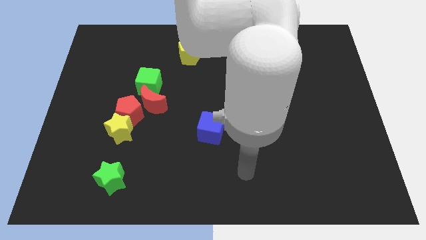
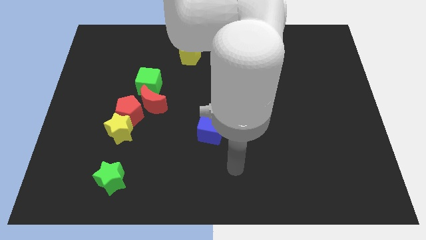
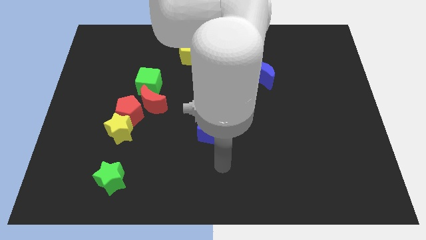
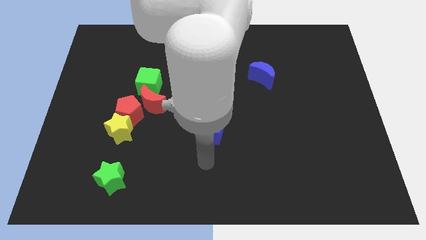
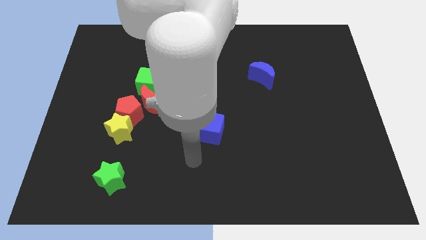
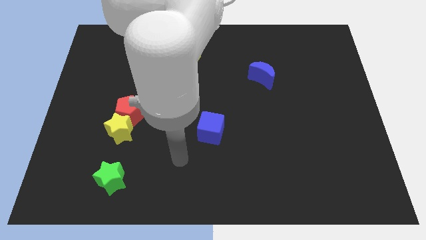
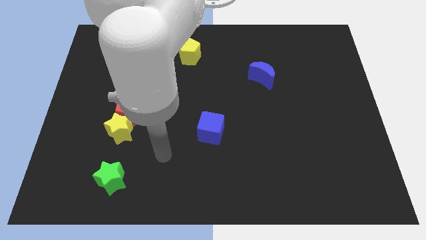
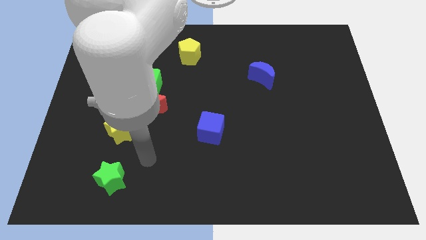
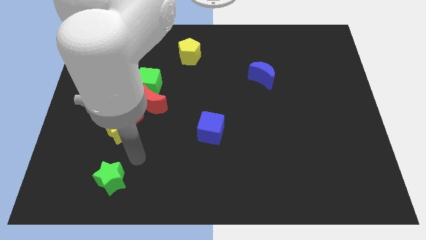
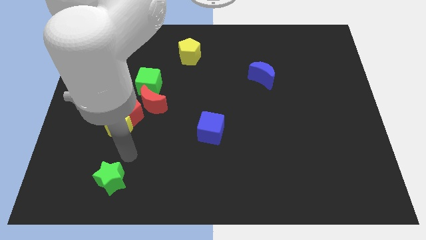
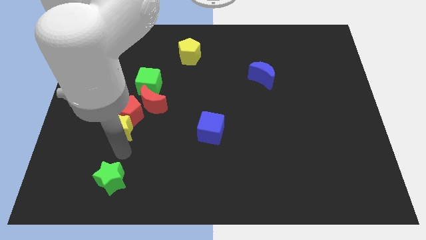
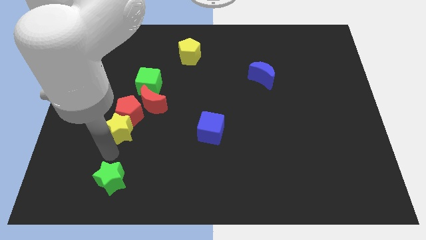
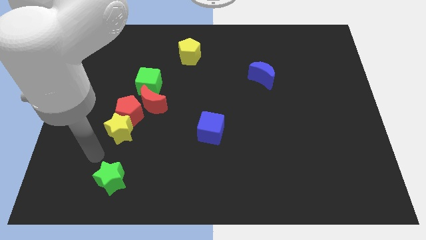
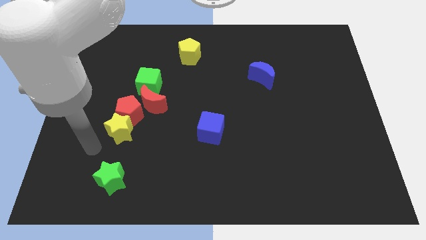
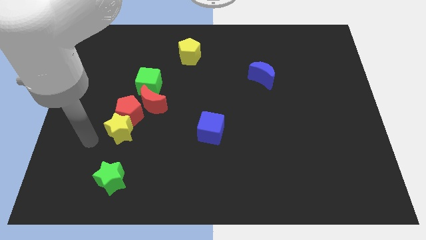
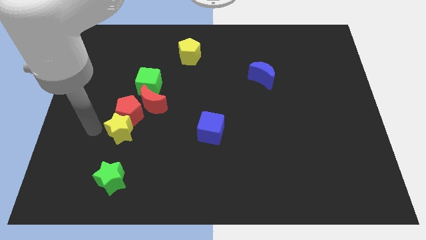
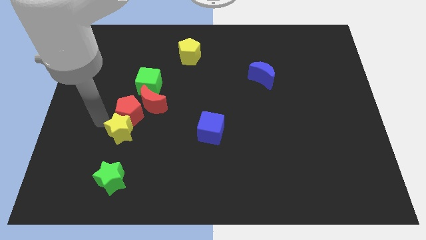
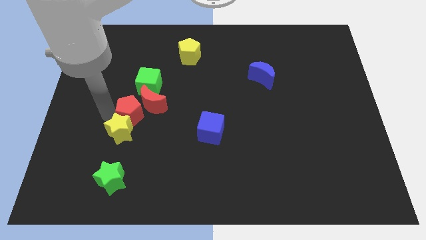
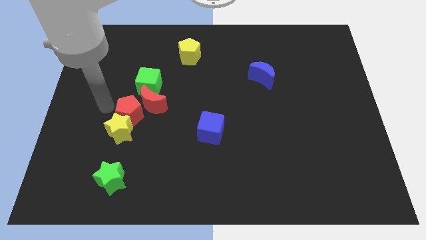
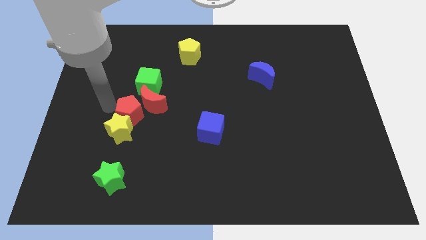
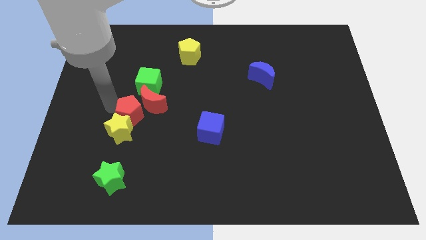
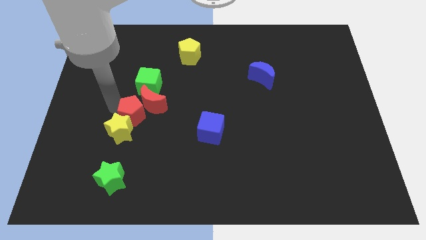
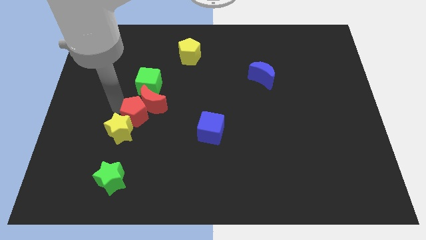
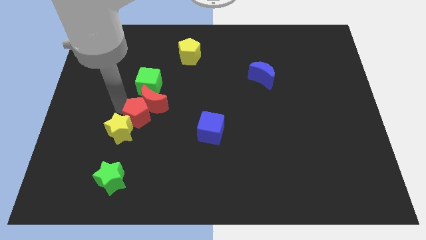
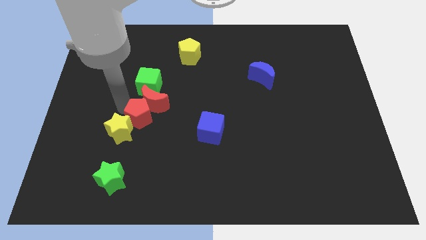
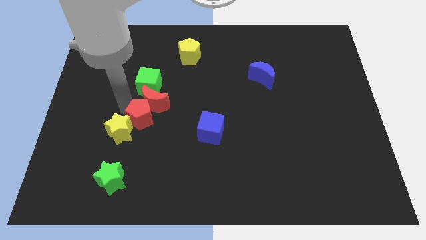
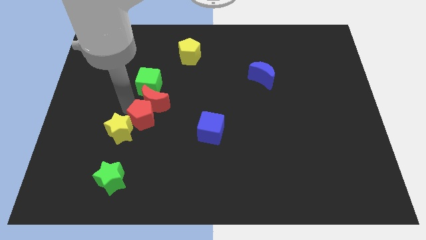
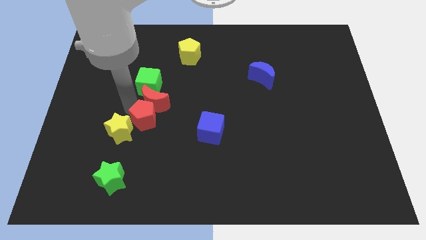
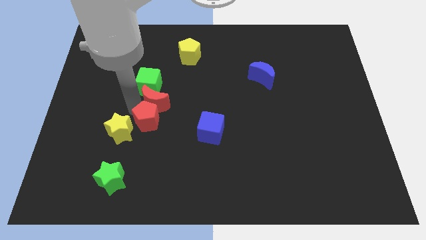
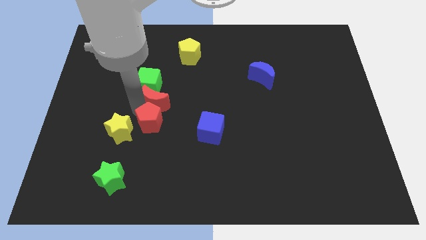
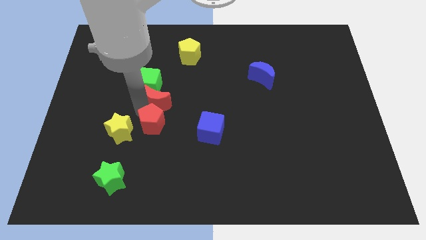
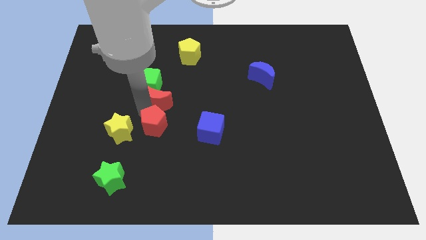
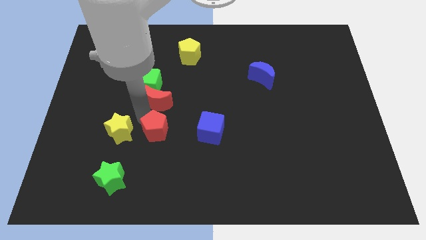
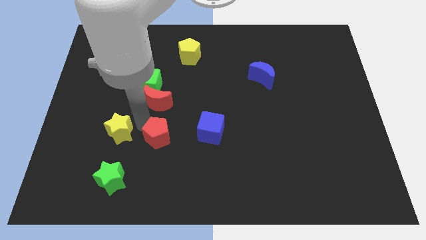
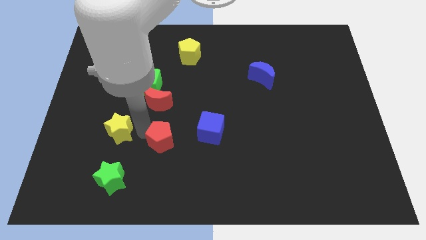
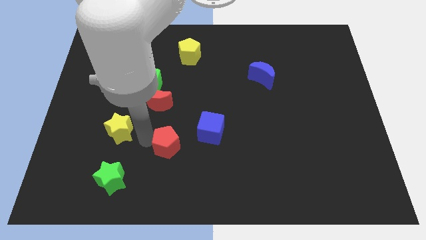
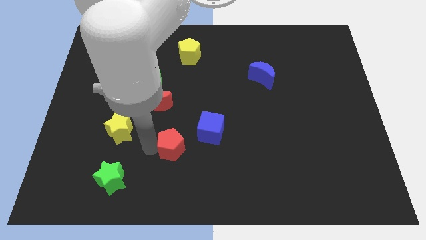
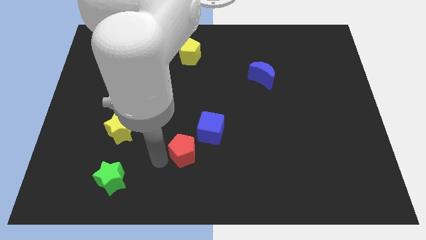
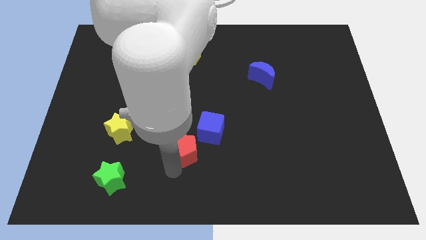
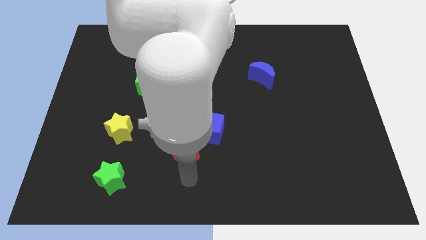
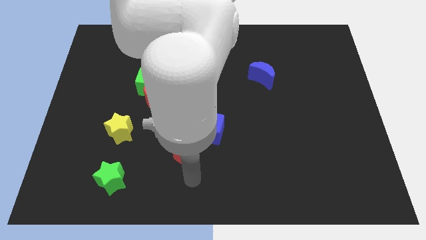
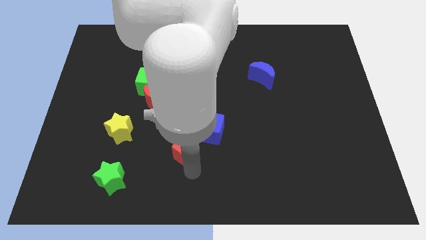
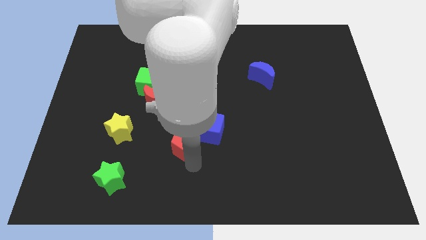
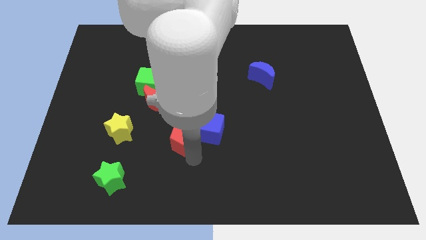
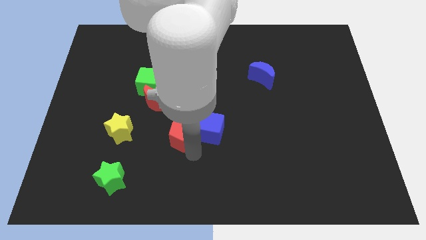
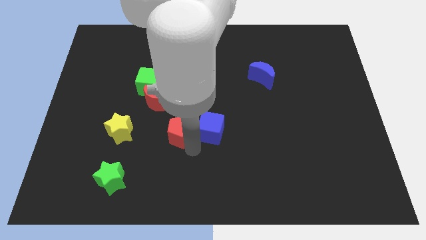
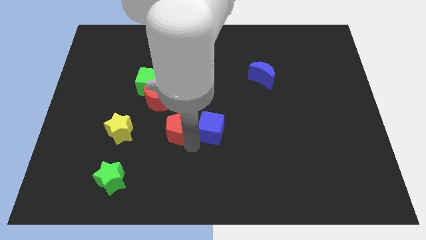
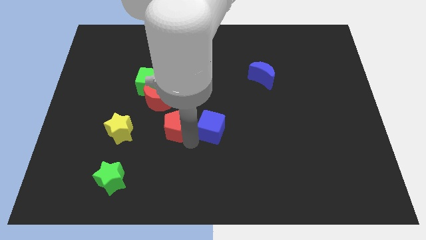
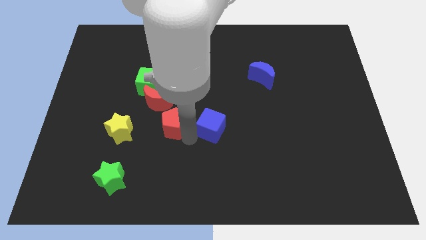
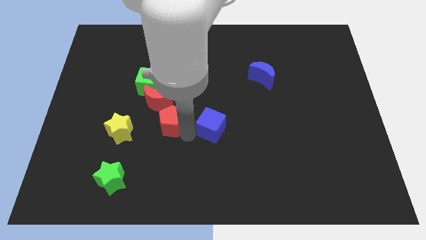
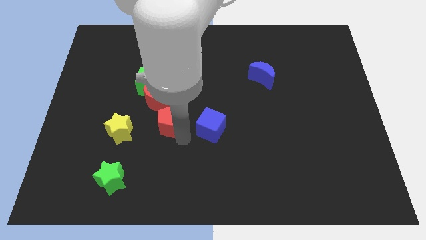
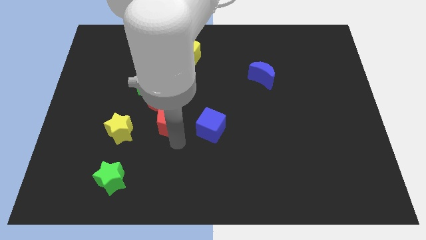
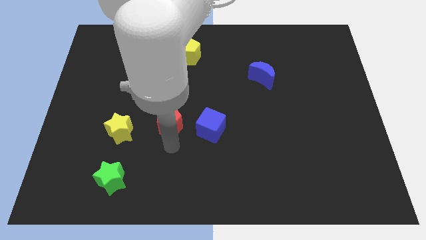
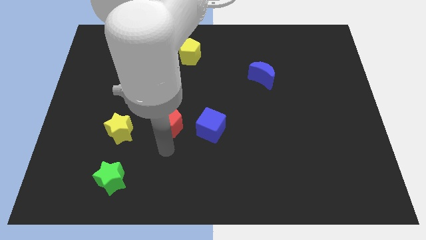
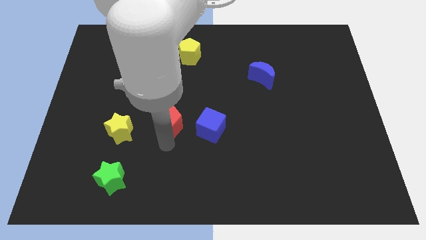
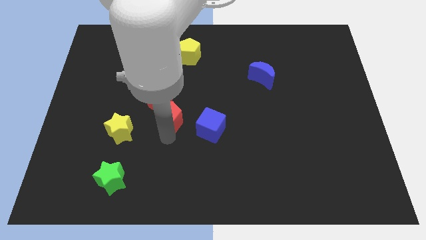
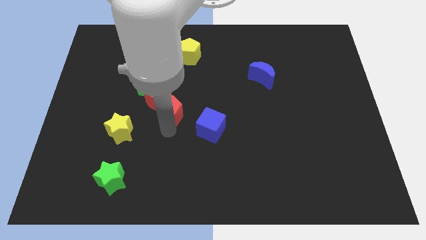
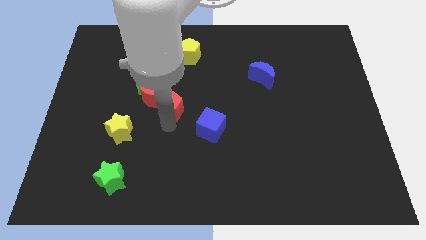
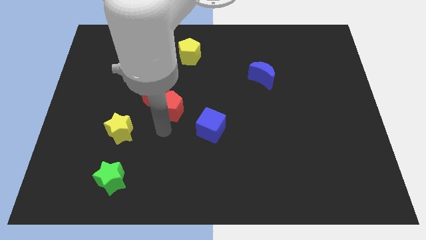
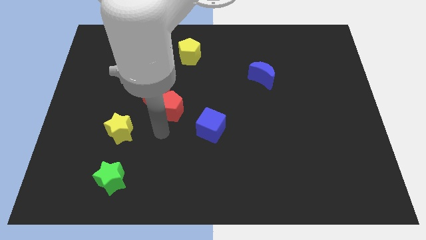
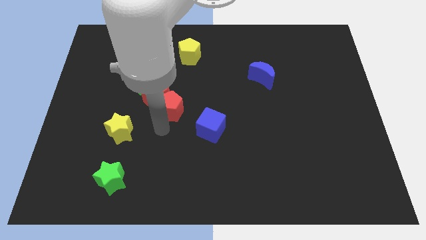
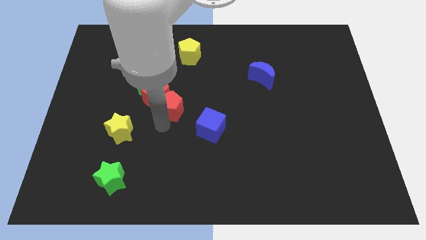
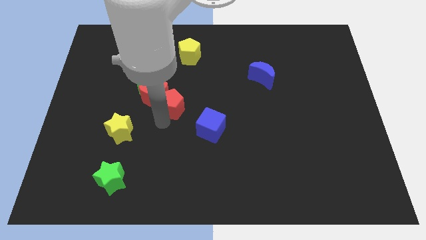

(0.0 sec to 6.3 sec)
slightly slide the red pentagon diagonally upwards and right

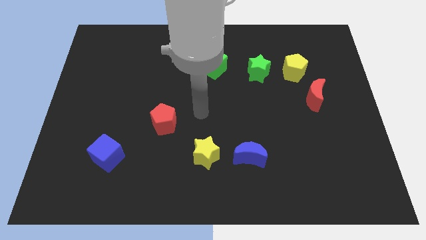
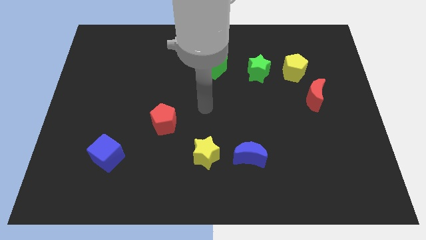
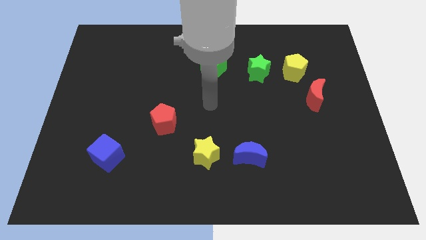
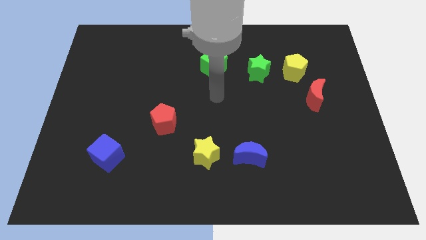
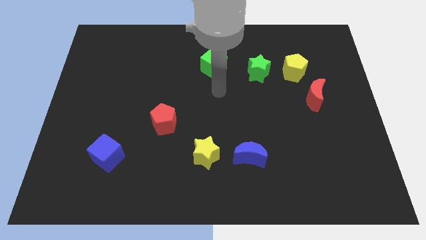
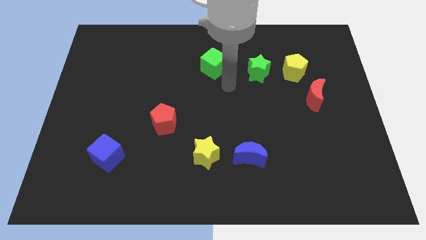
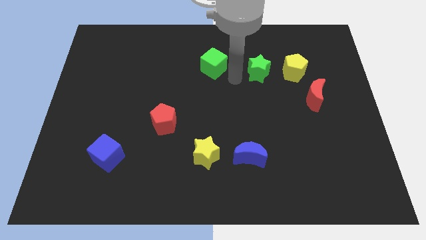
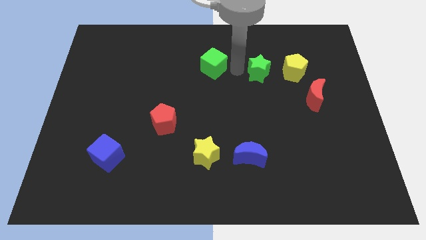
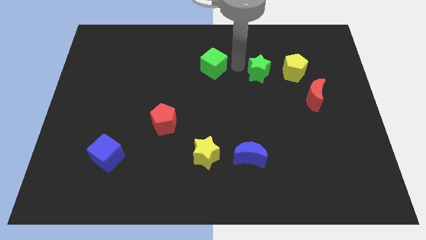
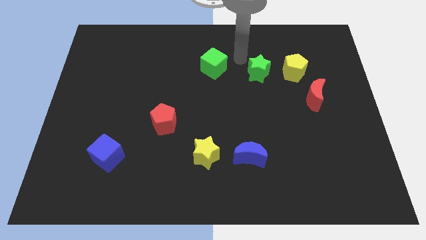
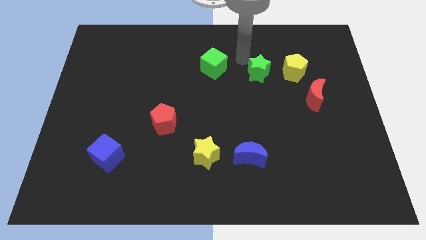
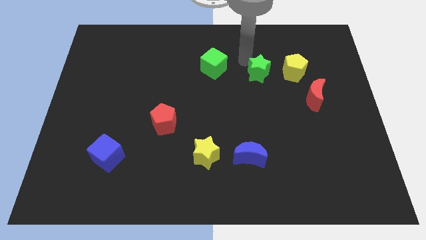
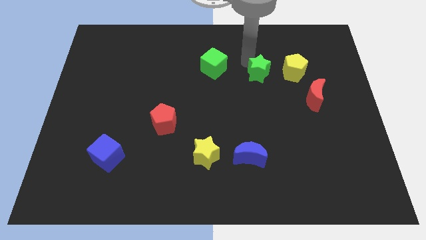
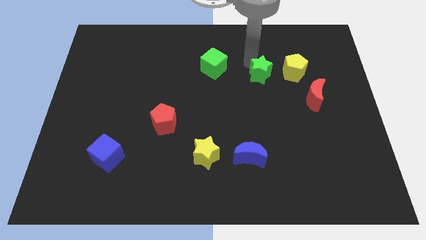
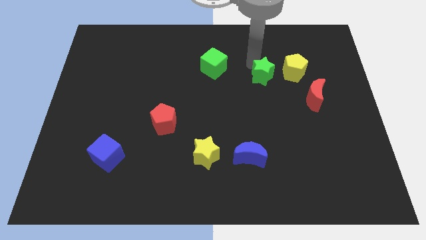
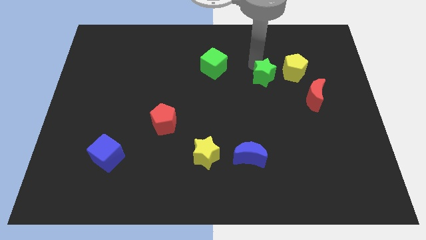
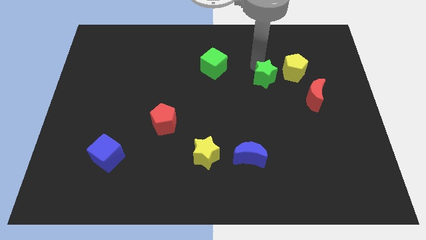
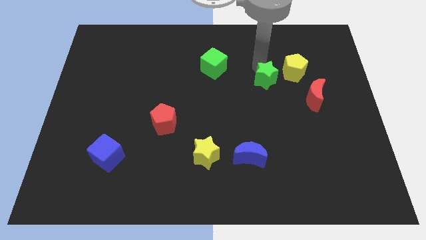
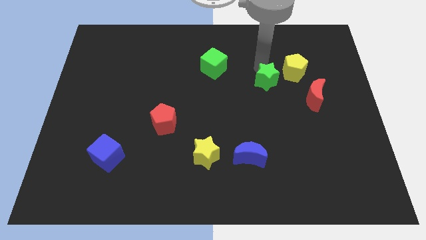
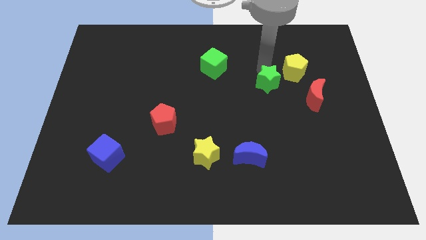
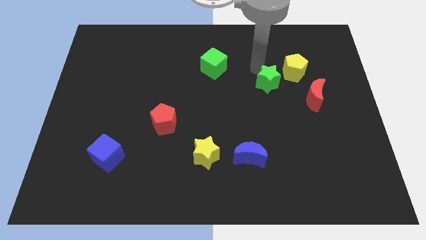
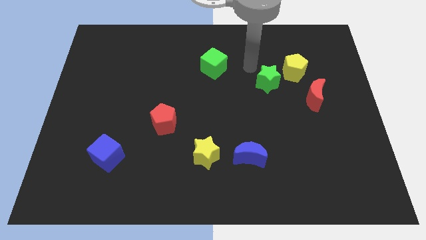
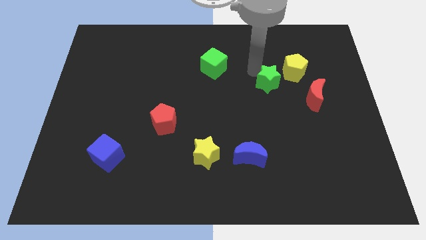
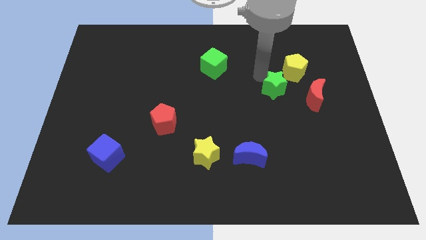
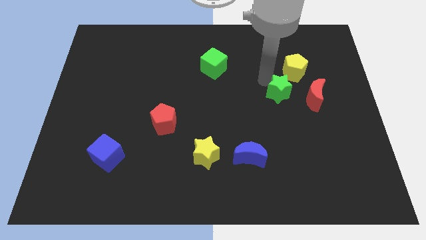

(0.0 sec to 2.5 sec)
slightly slide the green star downwards and right
